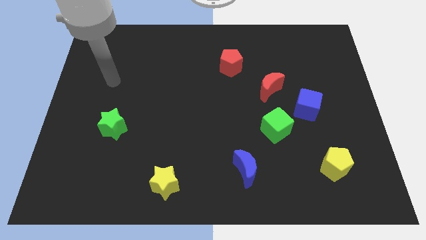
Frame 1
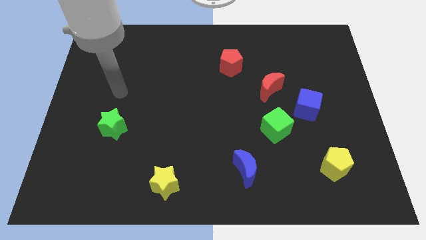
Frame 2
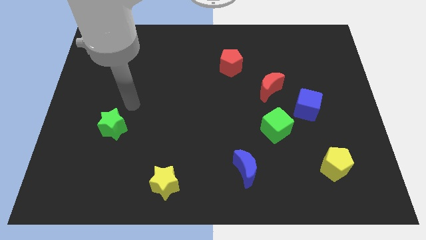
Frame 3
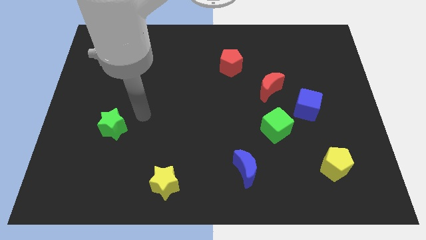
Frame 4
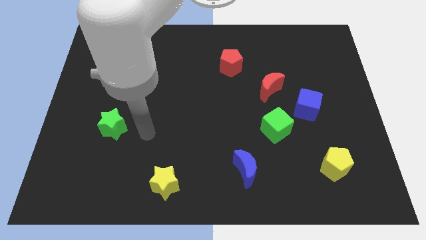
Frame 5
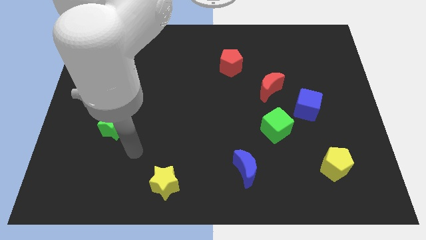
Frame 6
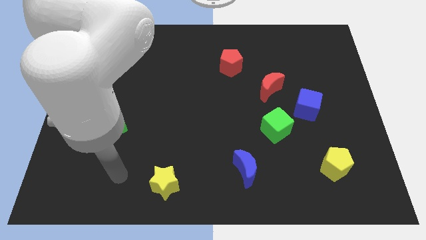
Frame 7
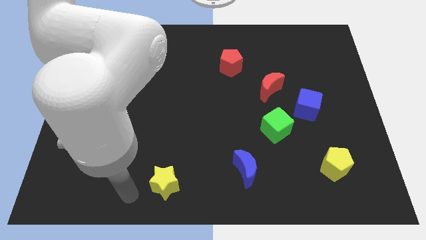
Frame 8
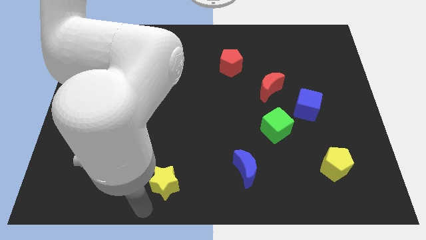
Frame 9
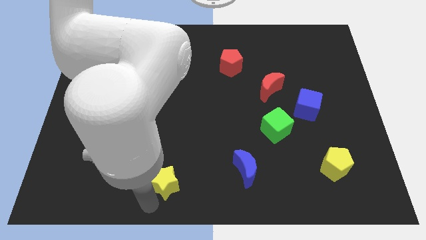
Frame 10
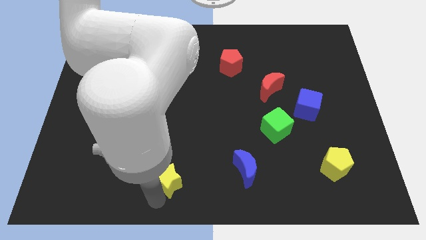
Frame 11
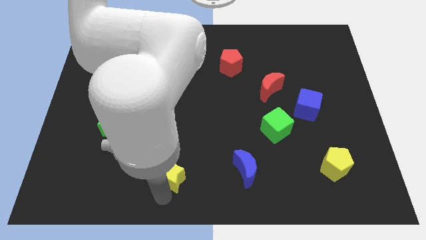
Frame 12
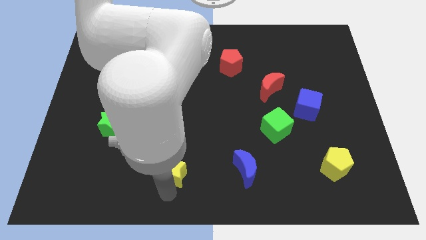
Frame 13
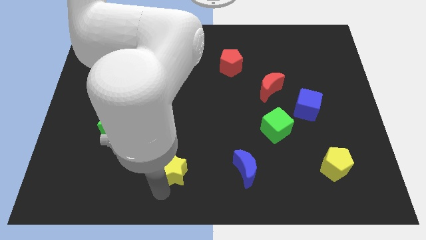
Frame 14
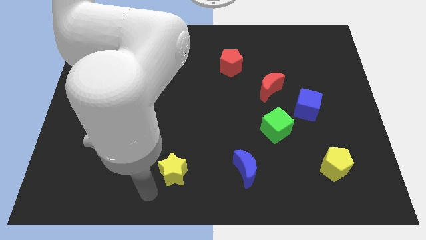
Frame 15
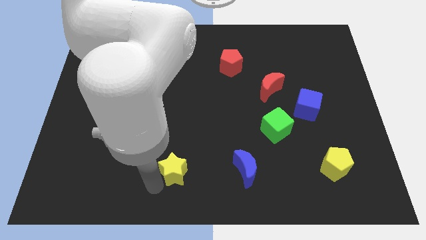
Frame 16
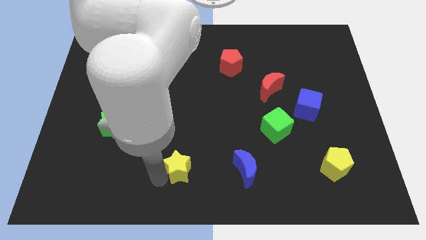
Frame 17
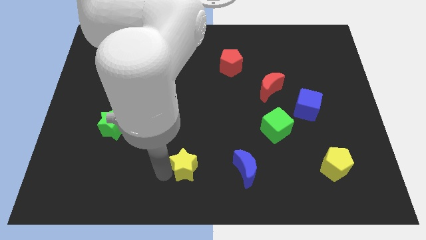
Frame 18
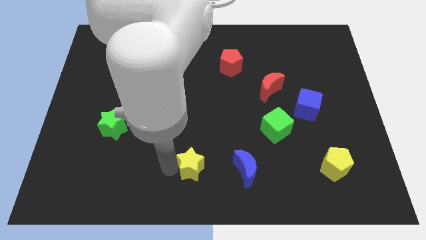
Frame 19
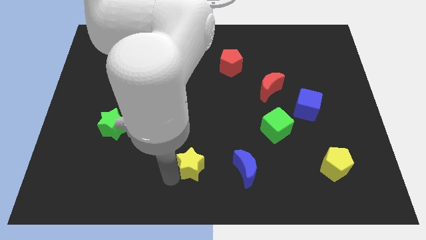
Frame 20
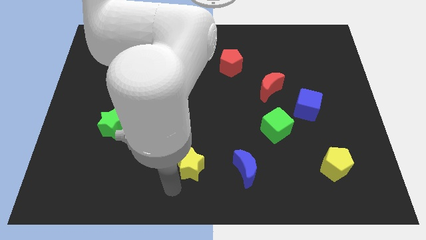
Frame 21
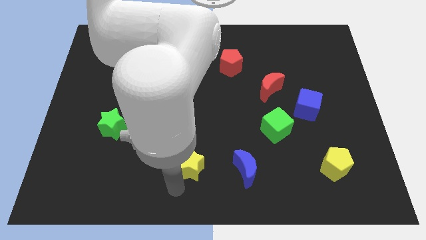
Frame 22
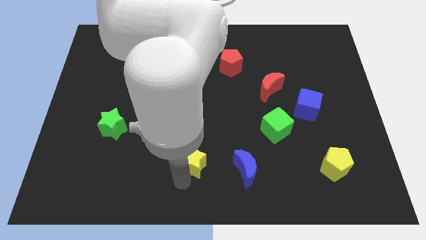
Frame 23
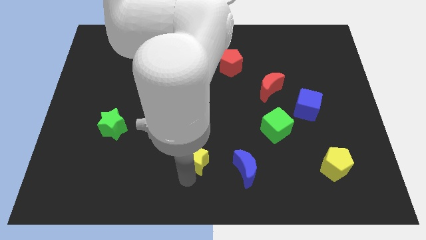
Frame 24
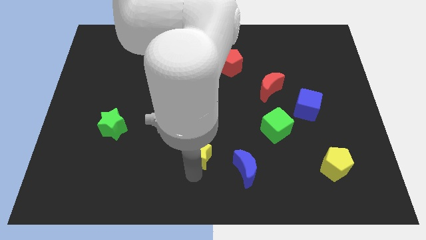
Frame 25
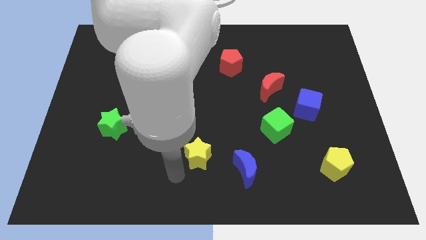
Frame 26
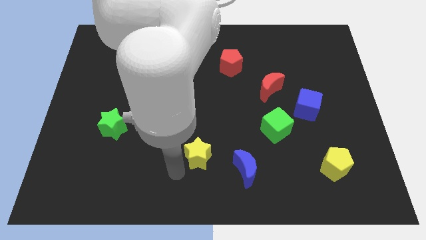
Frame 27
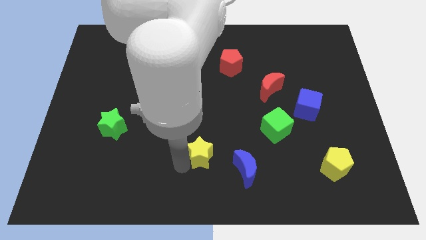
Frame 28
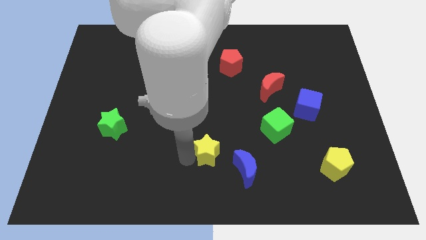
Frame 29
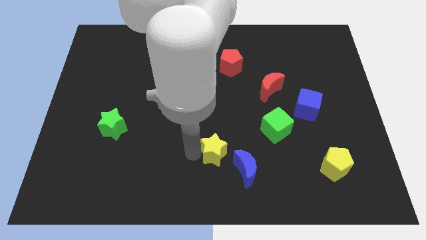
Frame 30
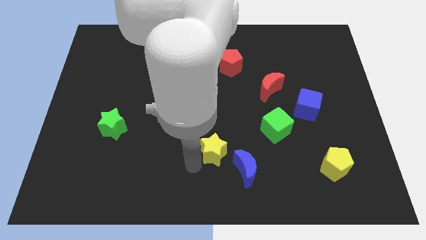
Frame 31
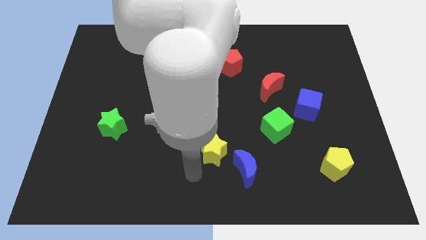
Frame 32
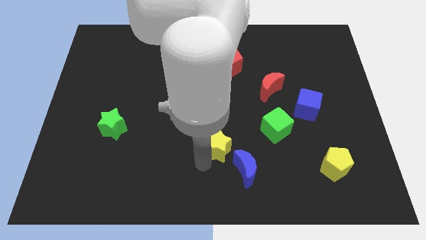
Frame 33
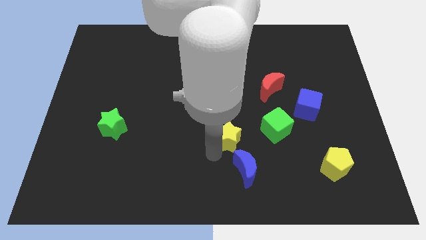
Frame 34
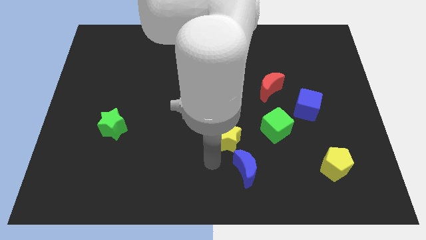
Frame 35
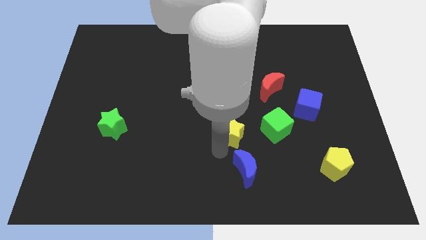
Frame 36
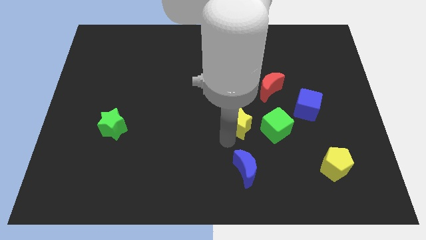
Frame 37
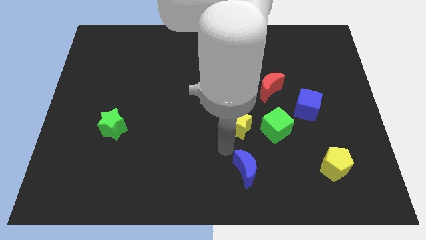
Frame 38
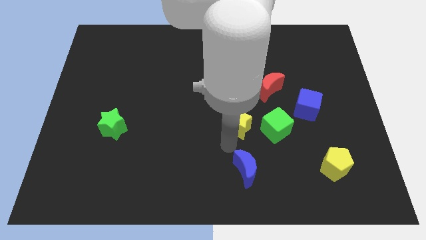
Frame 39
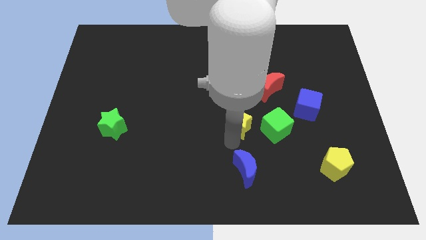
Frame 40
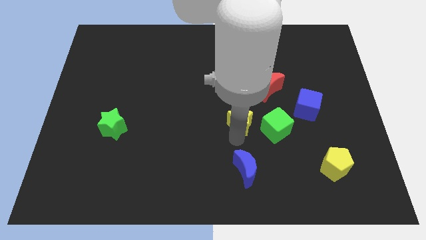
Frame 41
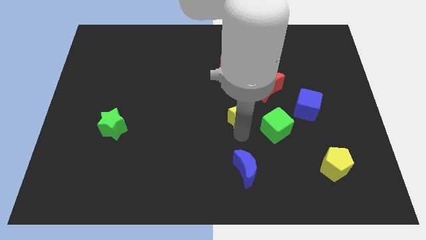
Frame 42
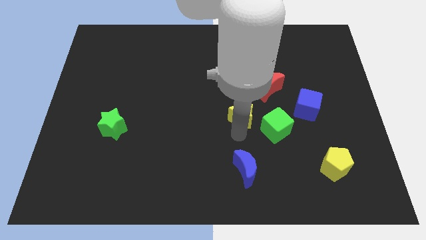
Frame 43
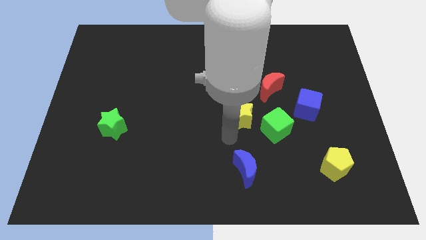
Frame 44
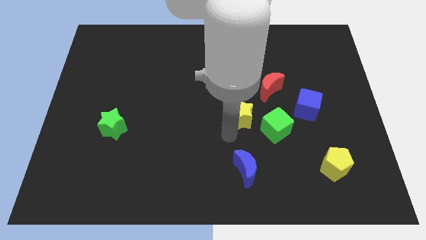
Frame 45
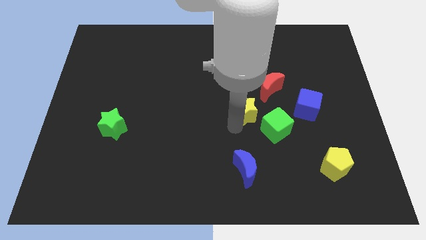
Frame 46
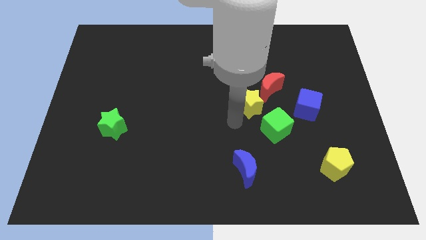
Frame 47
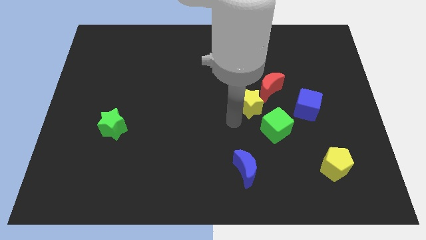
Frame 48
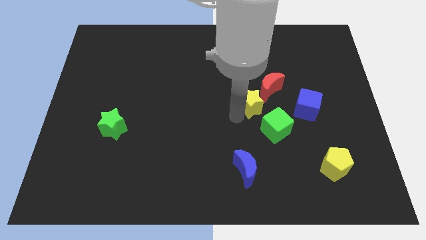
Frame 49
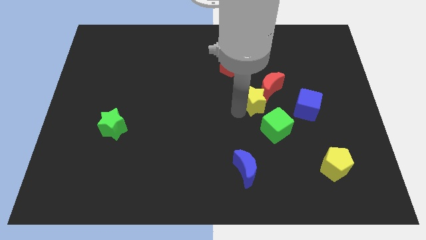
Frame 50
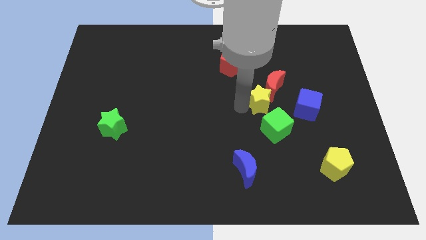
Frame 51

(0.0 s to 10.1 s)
put the yellow star next to the red moon

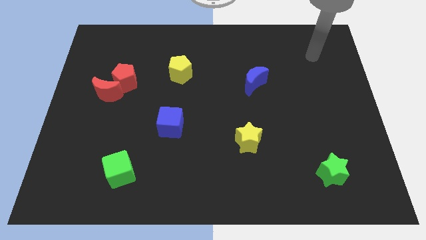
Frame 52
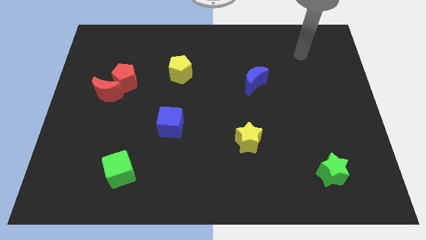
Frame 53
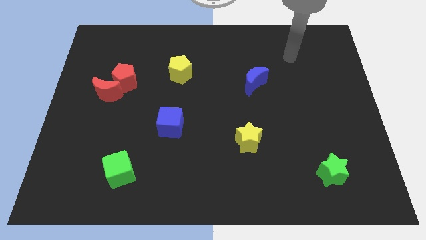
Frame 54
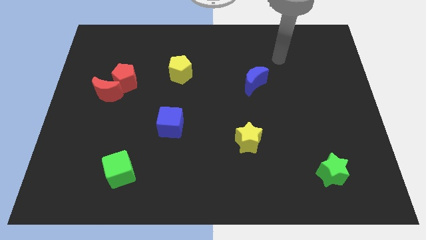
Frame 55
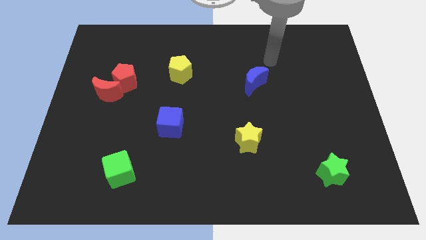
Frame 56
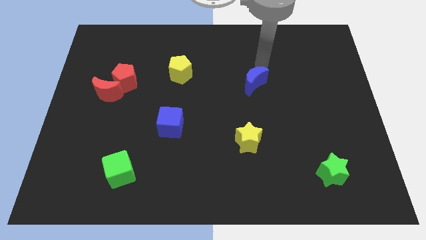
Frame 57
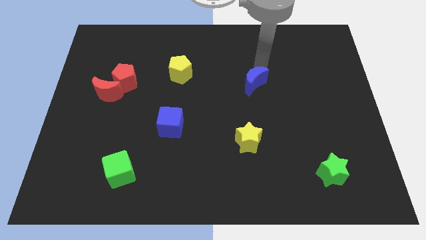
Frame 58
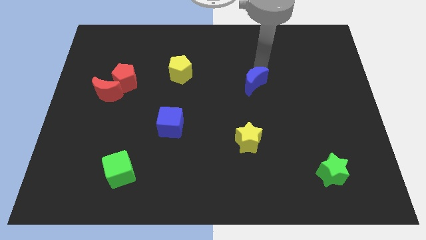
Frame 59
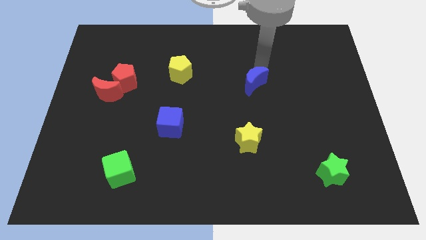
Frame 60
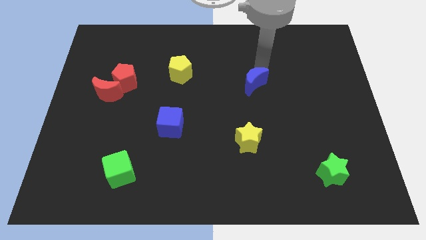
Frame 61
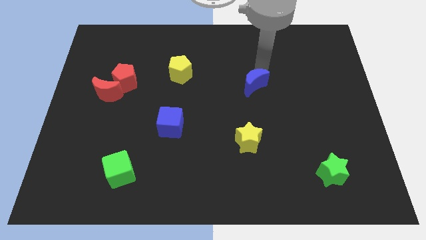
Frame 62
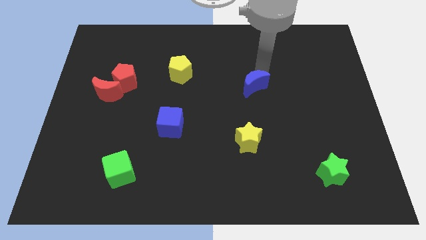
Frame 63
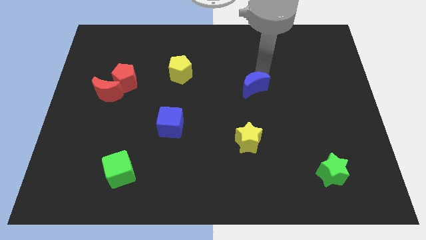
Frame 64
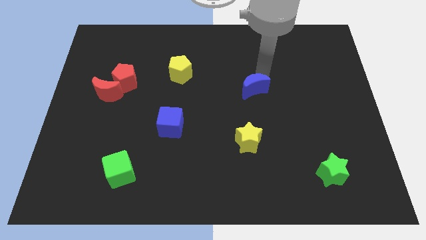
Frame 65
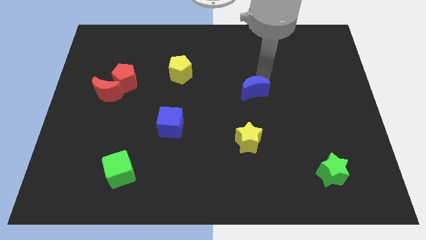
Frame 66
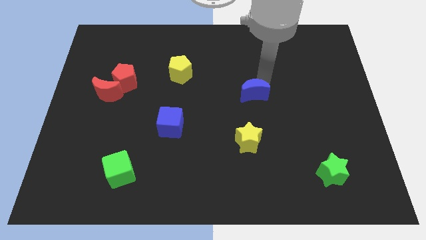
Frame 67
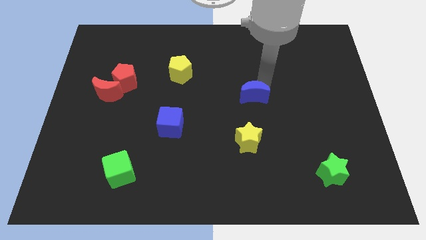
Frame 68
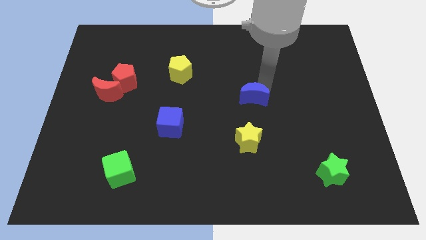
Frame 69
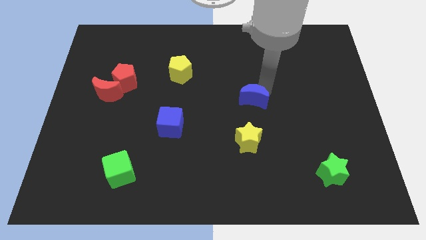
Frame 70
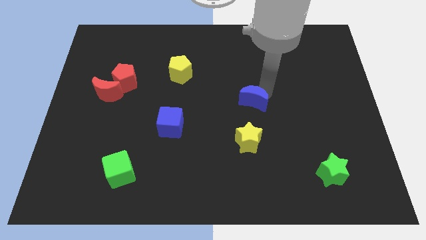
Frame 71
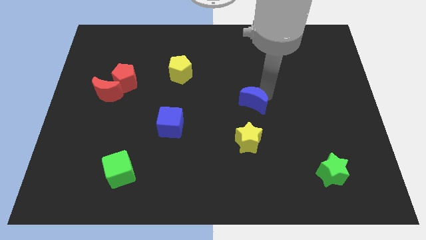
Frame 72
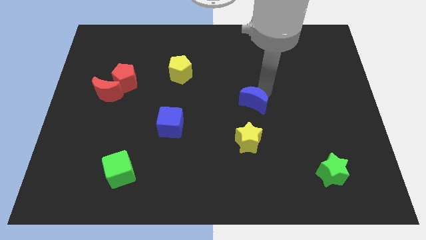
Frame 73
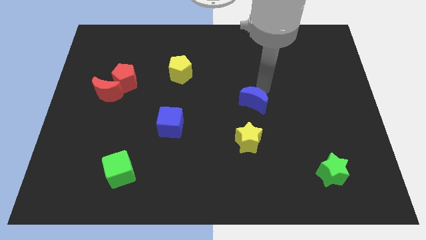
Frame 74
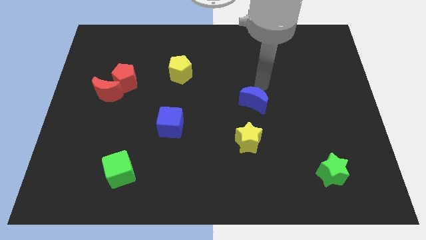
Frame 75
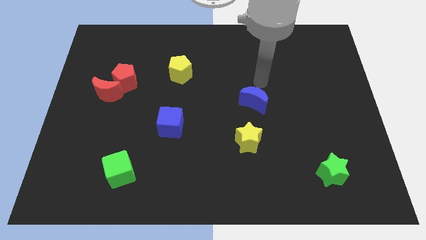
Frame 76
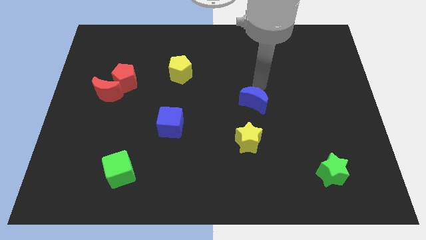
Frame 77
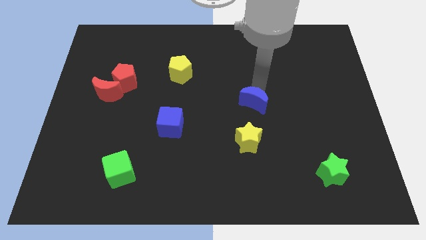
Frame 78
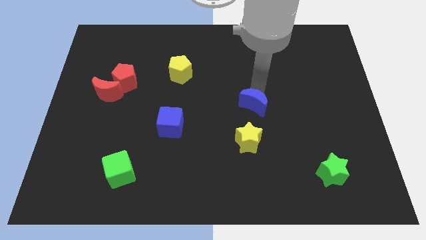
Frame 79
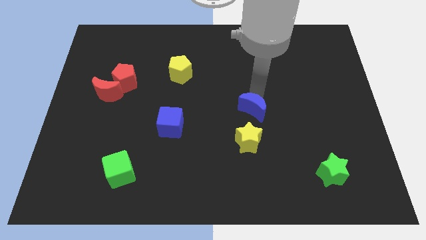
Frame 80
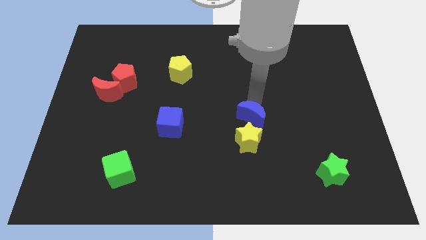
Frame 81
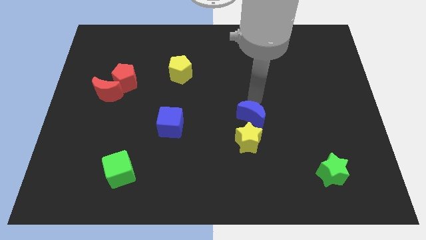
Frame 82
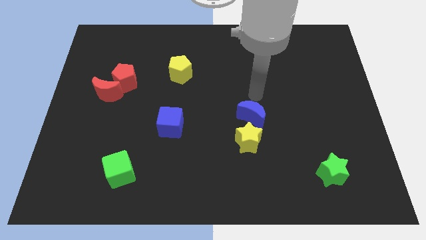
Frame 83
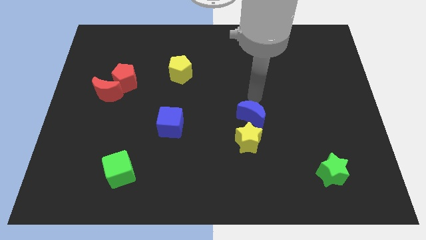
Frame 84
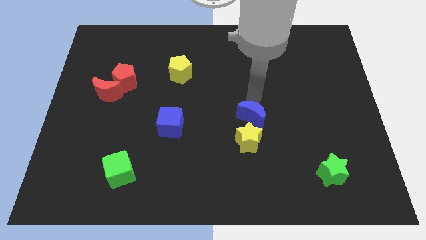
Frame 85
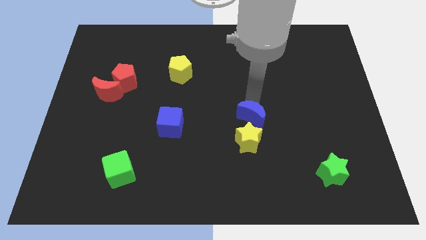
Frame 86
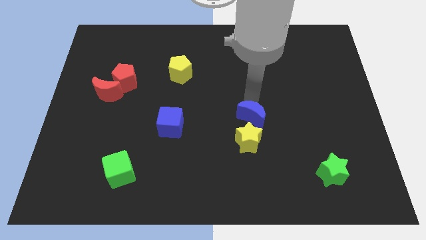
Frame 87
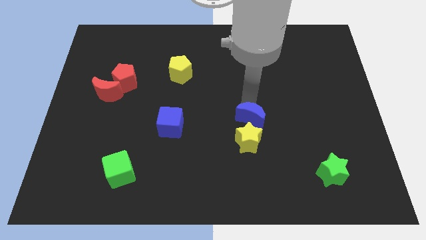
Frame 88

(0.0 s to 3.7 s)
put the blue moon next to the yellow star
